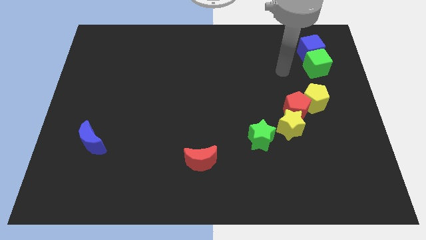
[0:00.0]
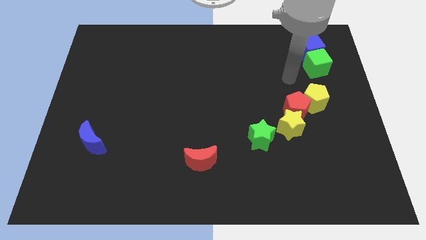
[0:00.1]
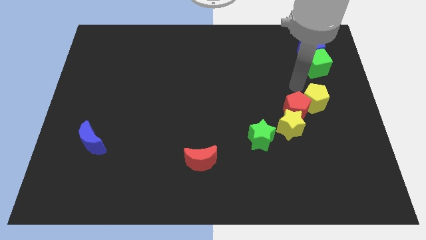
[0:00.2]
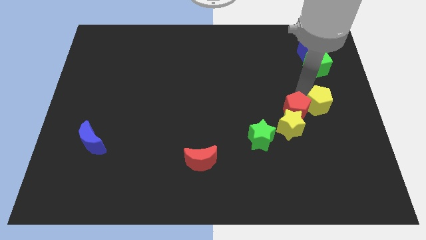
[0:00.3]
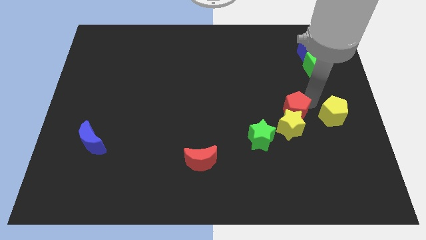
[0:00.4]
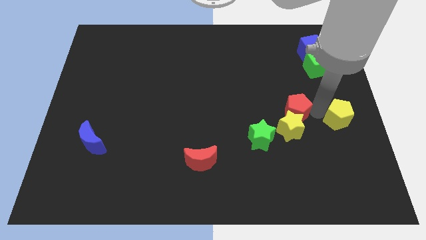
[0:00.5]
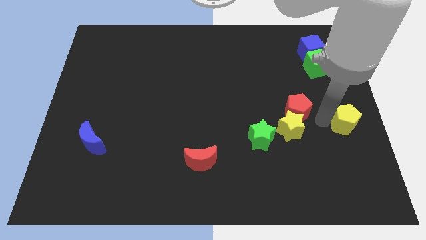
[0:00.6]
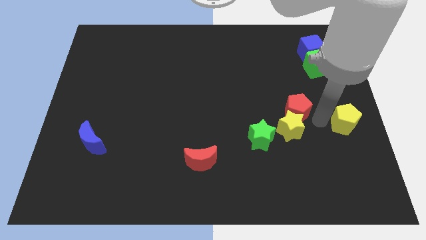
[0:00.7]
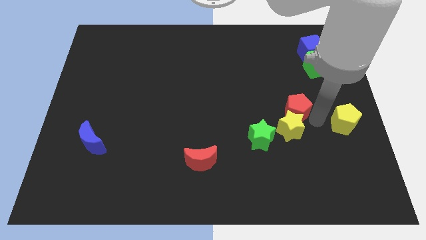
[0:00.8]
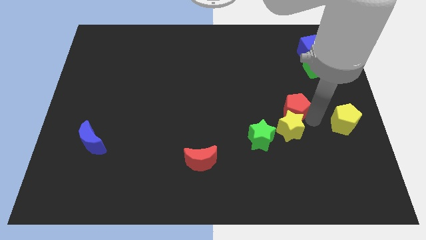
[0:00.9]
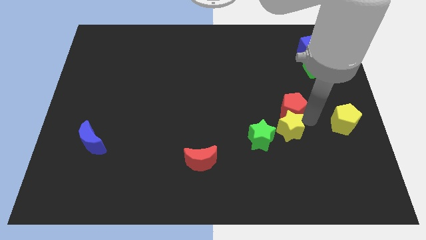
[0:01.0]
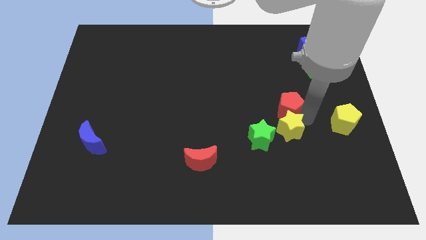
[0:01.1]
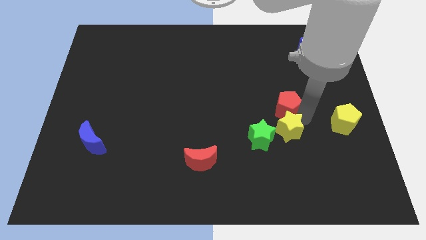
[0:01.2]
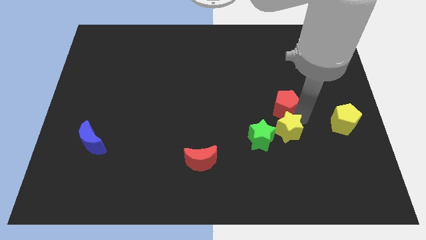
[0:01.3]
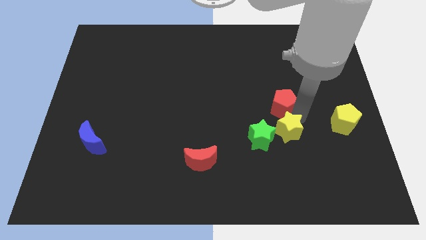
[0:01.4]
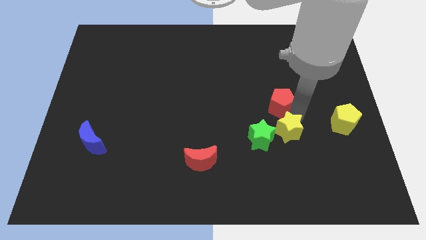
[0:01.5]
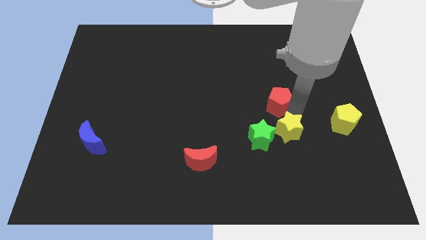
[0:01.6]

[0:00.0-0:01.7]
pull the red pentagon apart from the yellow star and yellow pentagon

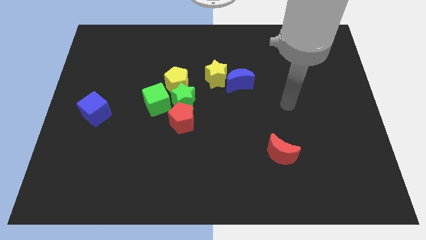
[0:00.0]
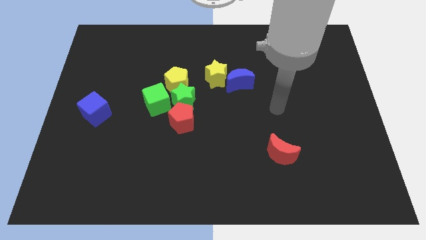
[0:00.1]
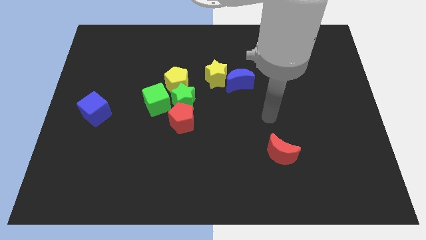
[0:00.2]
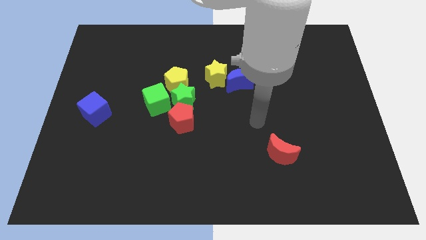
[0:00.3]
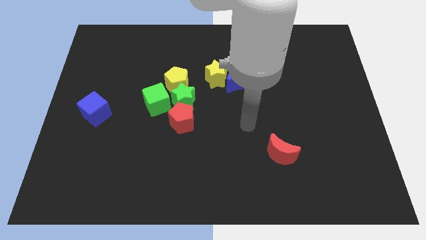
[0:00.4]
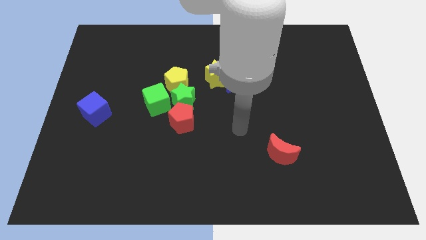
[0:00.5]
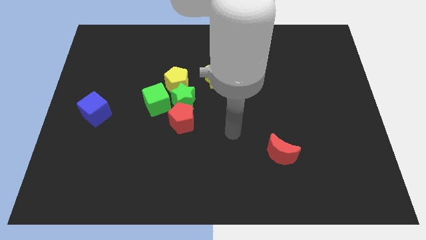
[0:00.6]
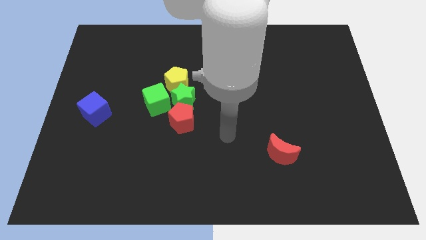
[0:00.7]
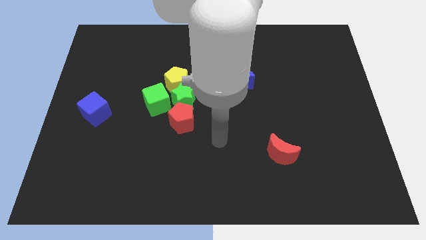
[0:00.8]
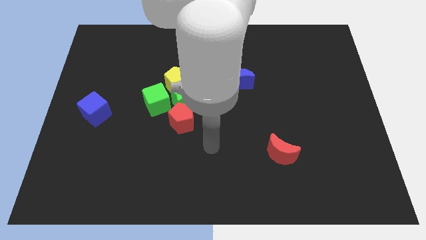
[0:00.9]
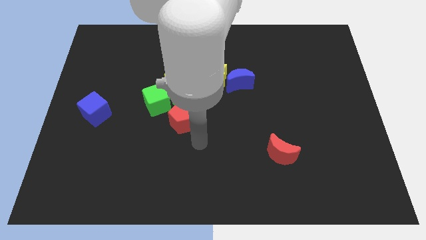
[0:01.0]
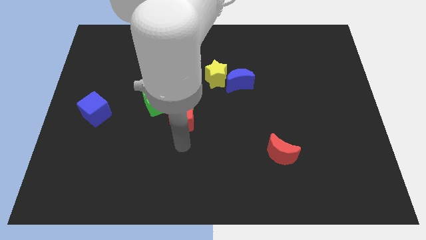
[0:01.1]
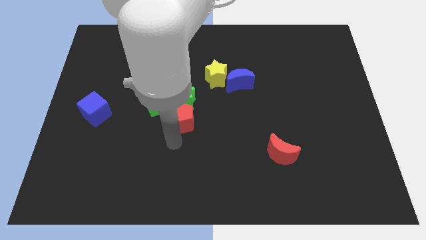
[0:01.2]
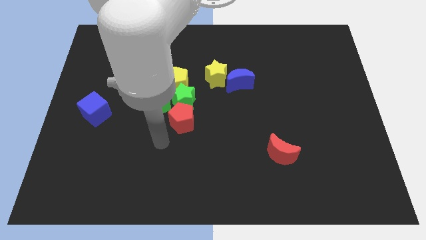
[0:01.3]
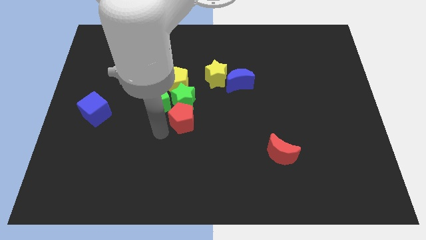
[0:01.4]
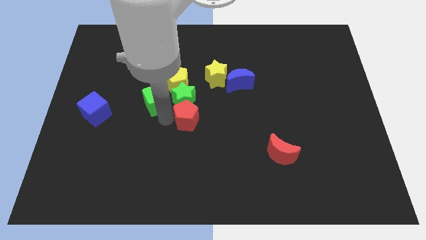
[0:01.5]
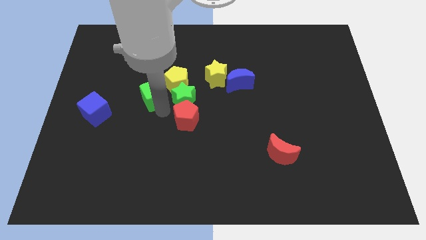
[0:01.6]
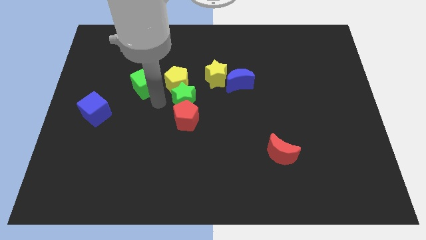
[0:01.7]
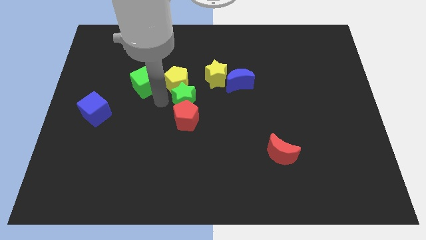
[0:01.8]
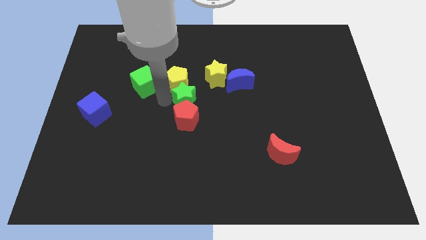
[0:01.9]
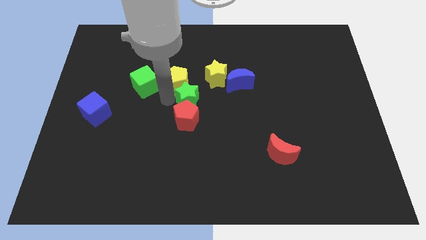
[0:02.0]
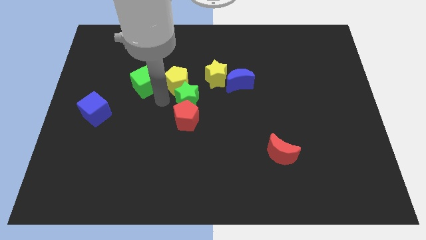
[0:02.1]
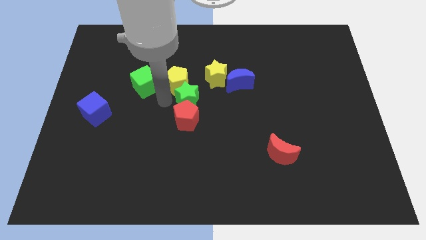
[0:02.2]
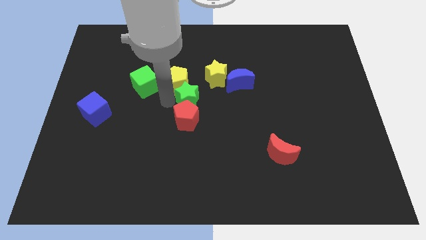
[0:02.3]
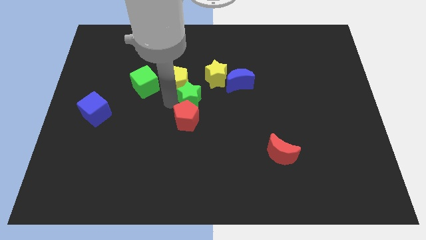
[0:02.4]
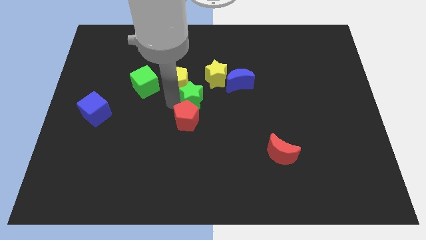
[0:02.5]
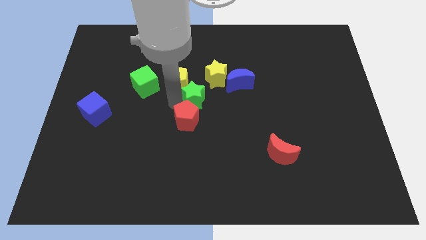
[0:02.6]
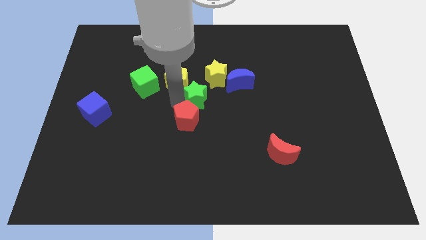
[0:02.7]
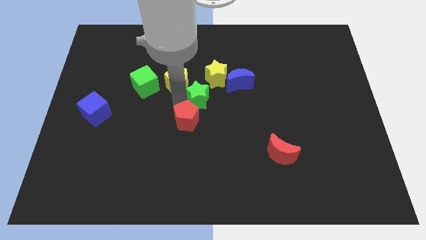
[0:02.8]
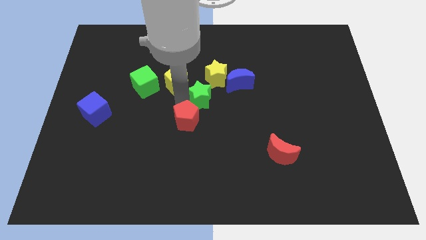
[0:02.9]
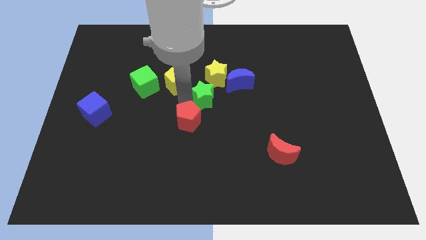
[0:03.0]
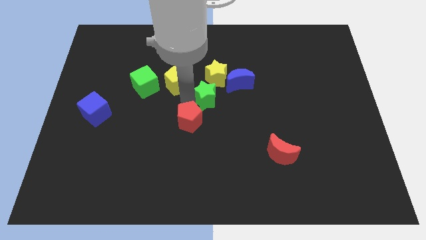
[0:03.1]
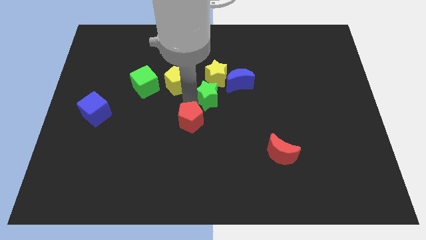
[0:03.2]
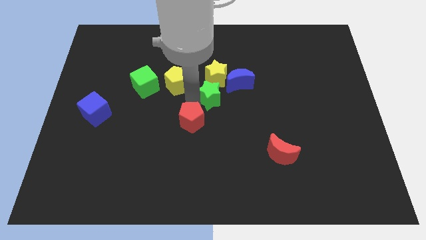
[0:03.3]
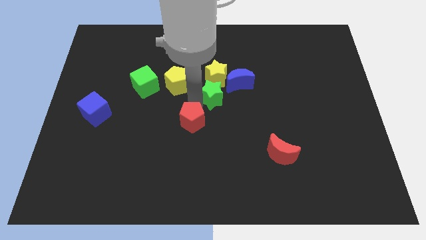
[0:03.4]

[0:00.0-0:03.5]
move the green star away from the group

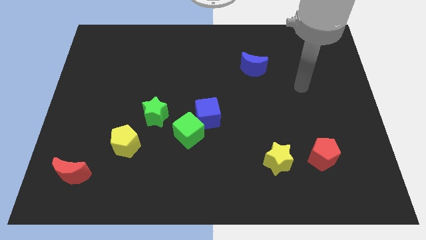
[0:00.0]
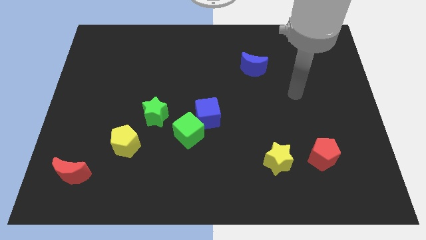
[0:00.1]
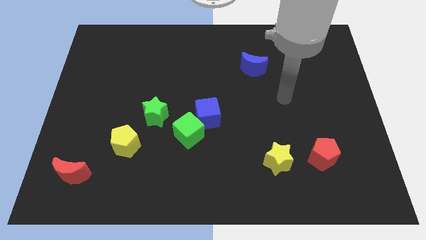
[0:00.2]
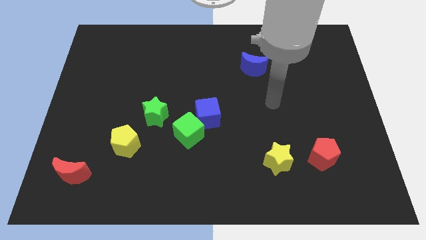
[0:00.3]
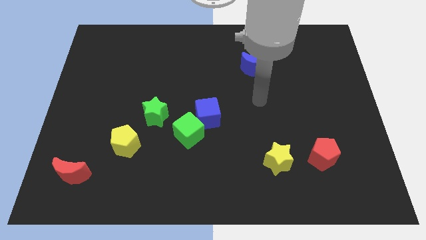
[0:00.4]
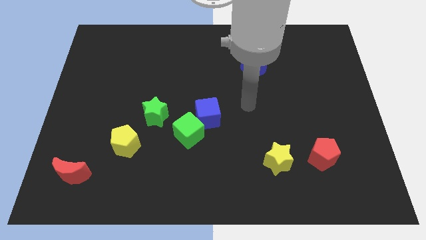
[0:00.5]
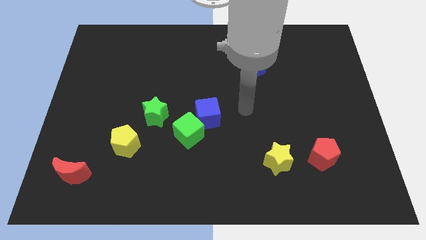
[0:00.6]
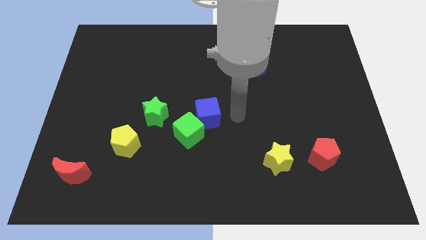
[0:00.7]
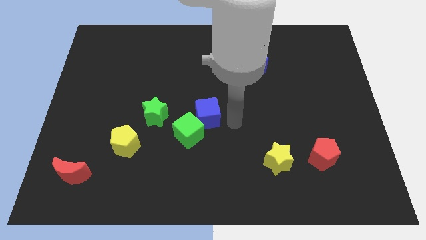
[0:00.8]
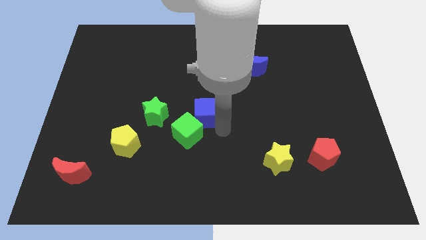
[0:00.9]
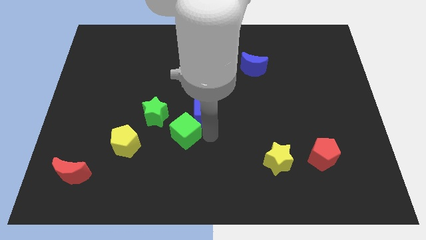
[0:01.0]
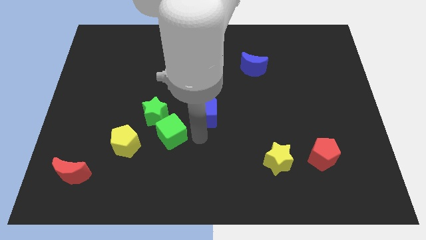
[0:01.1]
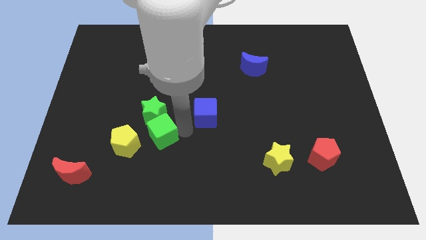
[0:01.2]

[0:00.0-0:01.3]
move the blue cube away from the green cube

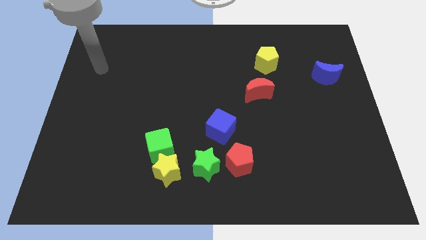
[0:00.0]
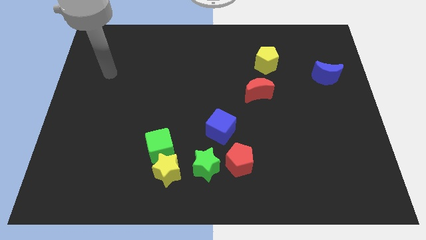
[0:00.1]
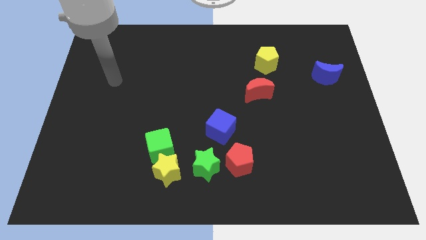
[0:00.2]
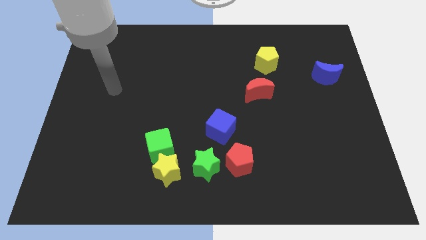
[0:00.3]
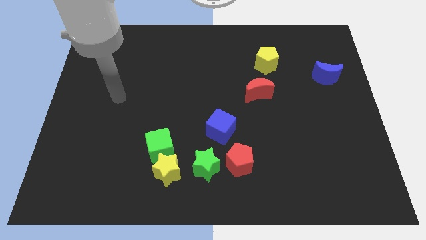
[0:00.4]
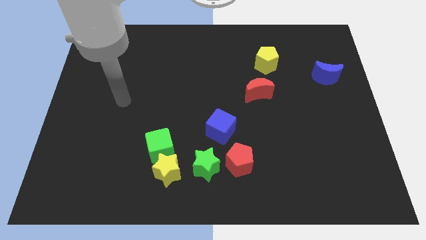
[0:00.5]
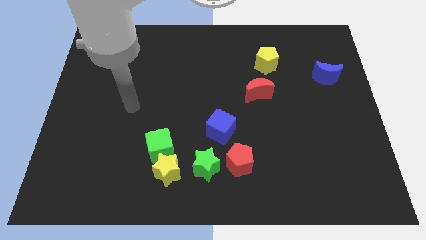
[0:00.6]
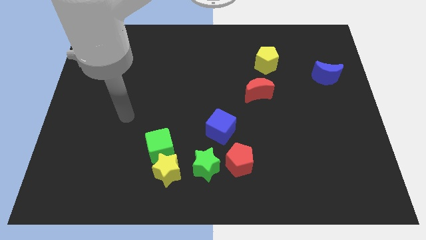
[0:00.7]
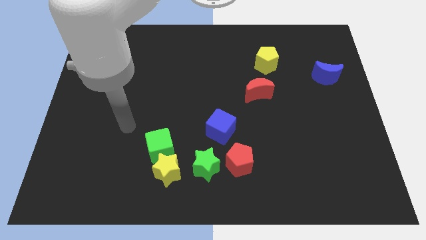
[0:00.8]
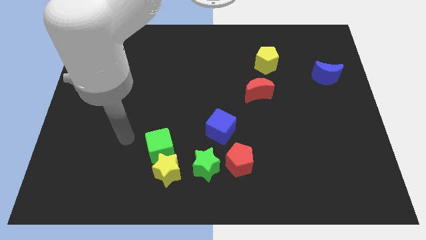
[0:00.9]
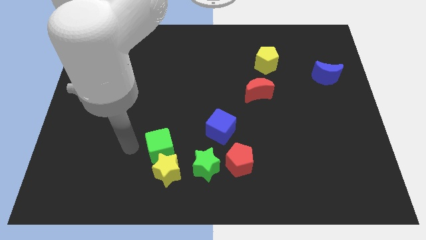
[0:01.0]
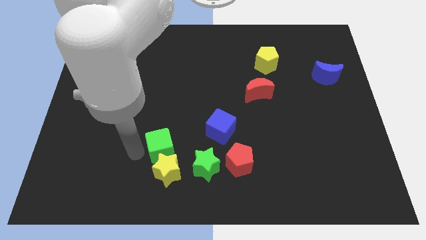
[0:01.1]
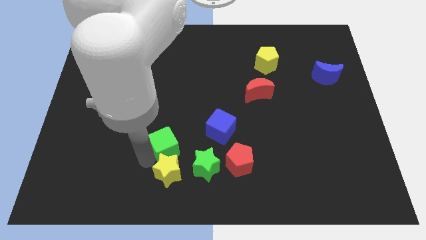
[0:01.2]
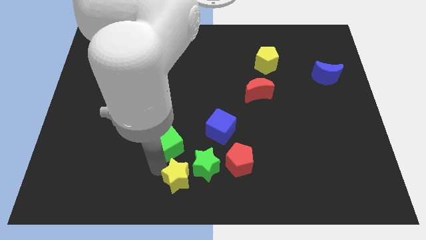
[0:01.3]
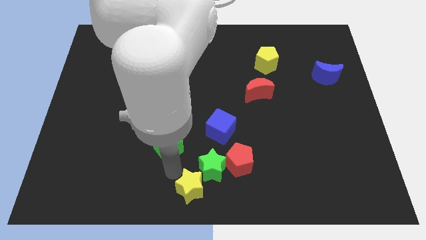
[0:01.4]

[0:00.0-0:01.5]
pull the green cube apart from the yellow star

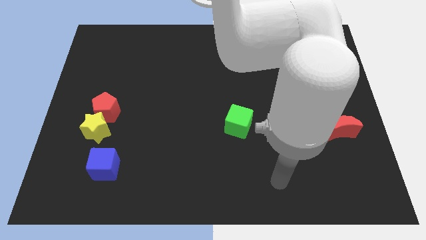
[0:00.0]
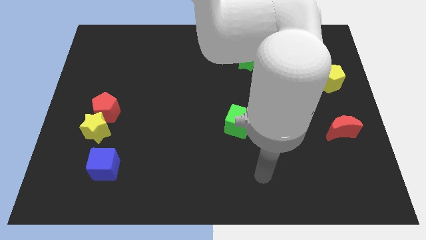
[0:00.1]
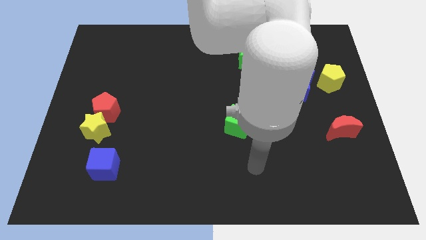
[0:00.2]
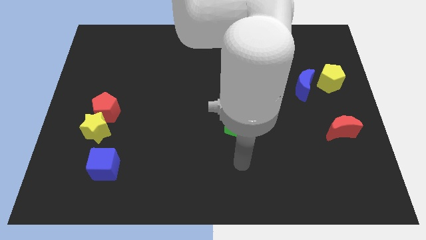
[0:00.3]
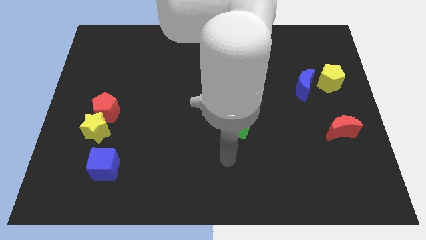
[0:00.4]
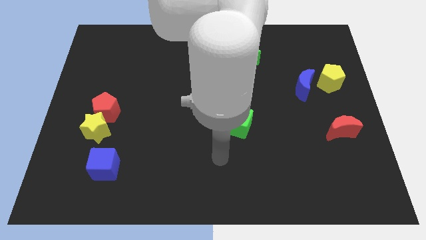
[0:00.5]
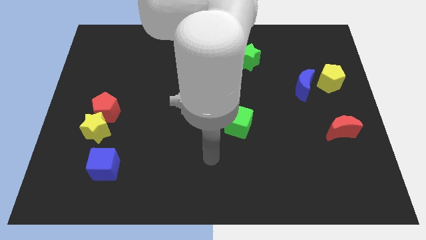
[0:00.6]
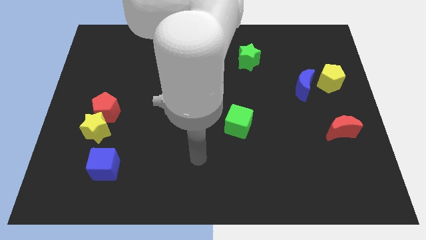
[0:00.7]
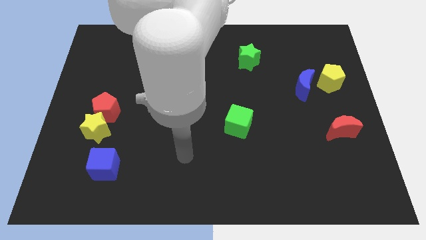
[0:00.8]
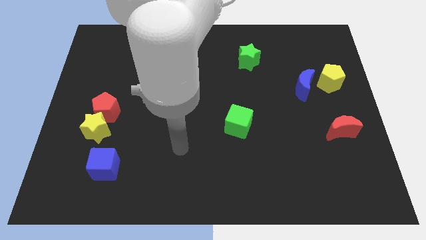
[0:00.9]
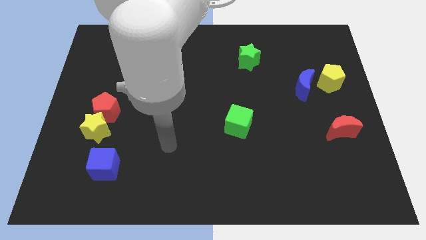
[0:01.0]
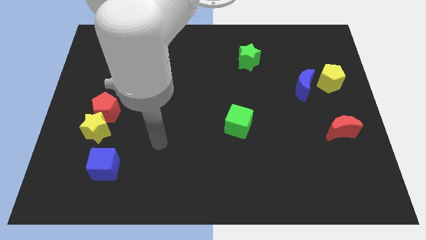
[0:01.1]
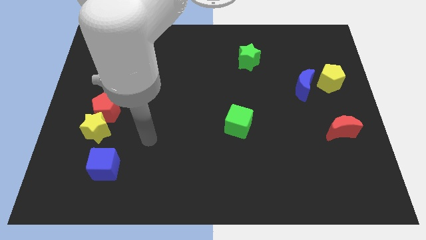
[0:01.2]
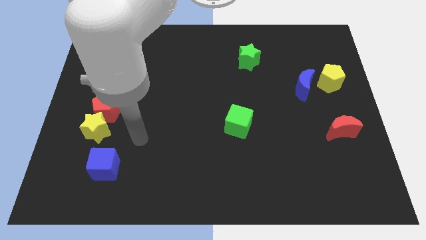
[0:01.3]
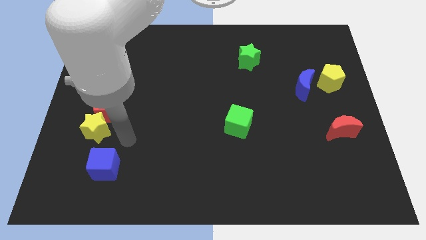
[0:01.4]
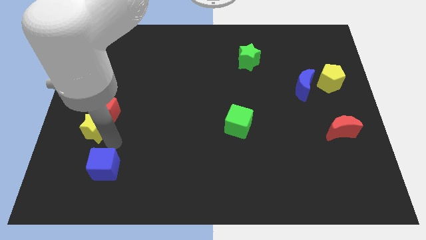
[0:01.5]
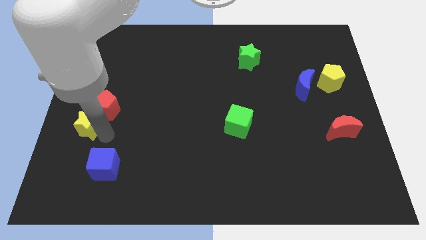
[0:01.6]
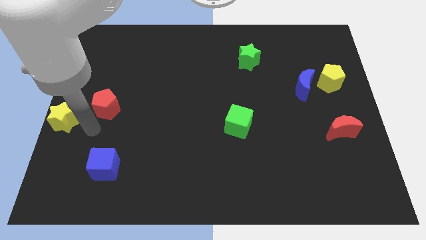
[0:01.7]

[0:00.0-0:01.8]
separate the red pentagon from the yellow star
